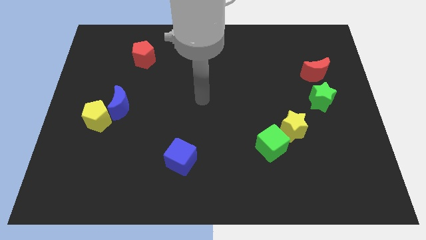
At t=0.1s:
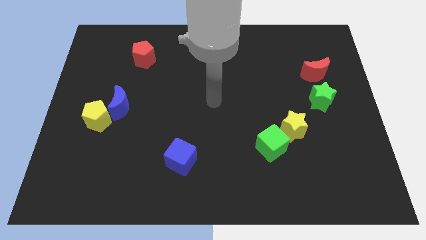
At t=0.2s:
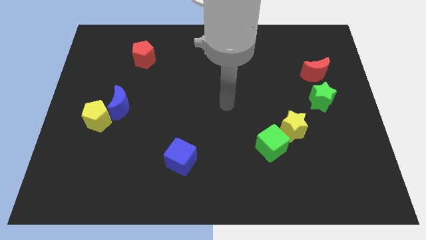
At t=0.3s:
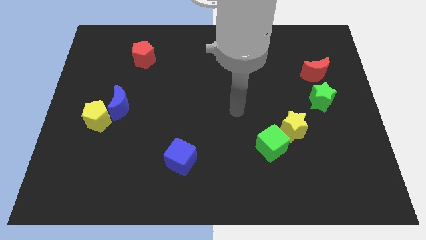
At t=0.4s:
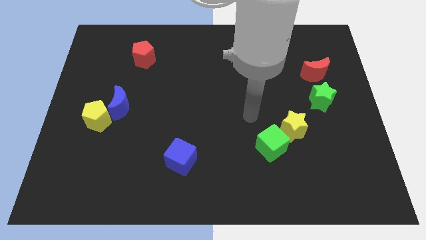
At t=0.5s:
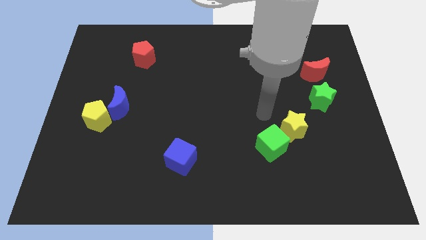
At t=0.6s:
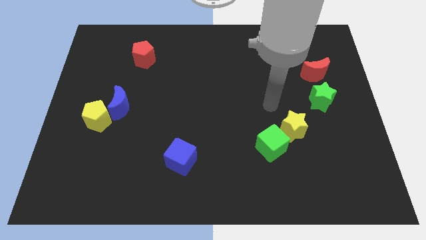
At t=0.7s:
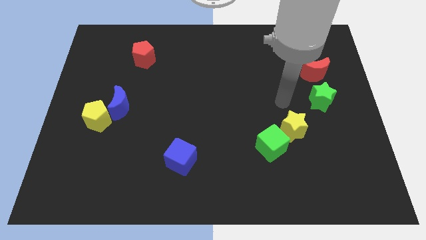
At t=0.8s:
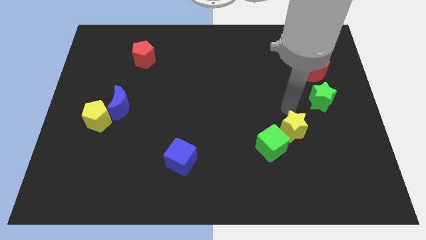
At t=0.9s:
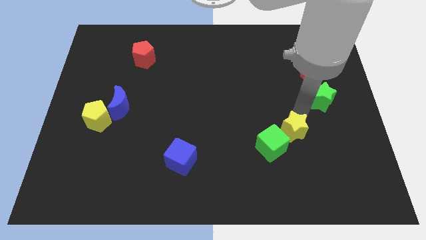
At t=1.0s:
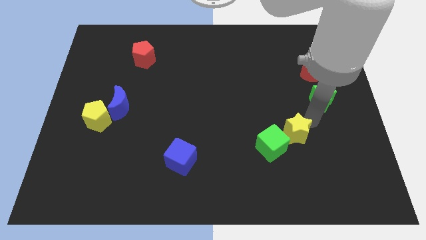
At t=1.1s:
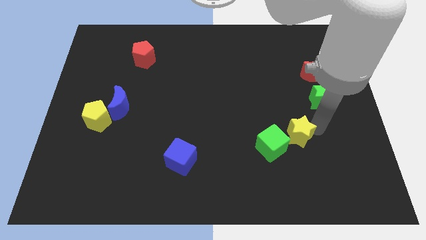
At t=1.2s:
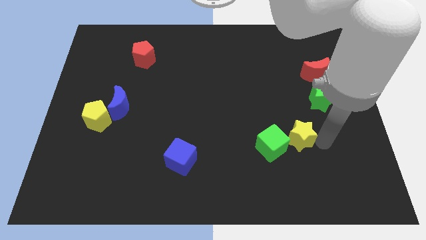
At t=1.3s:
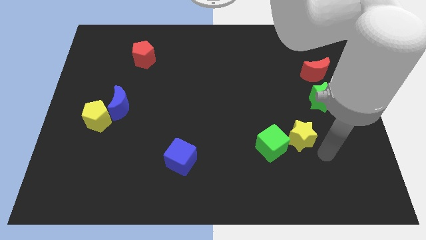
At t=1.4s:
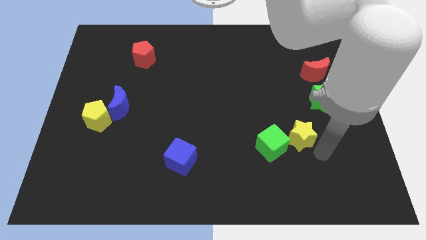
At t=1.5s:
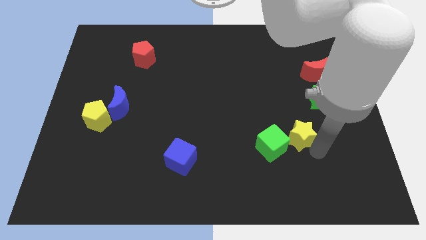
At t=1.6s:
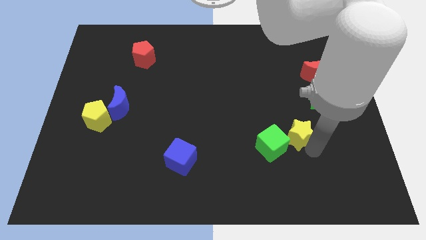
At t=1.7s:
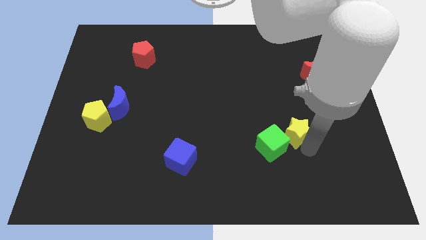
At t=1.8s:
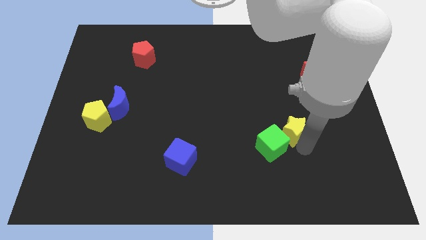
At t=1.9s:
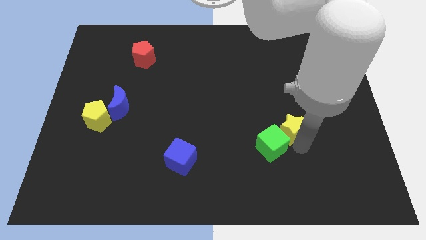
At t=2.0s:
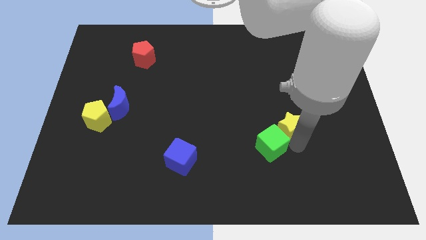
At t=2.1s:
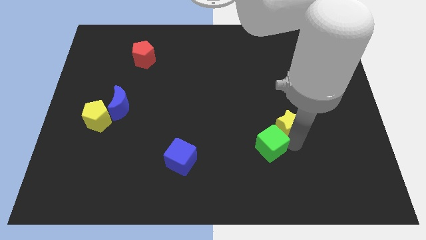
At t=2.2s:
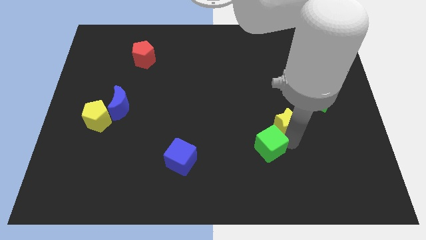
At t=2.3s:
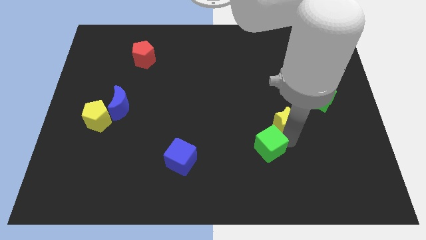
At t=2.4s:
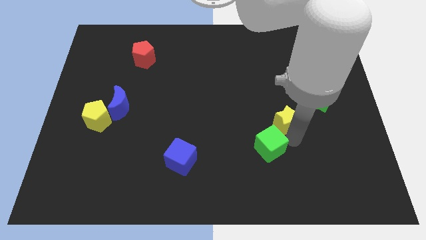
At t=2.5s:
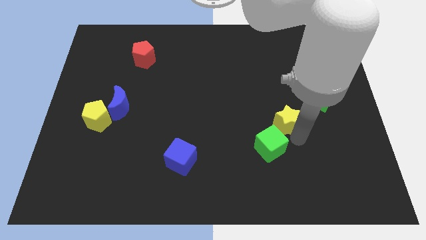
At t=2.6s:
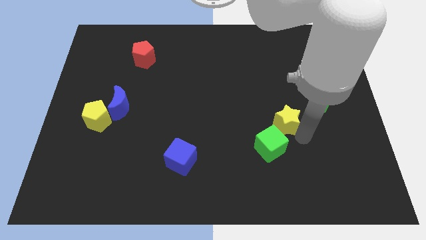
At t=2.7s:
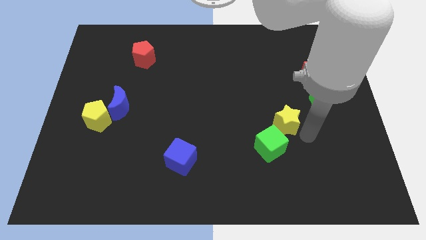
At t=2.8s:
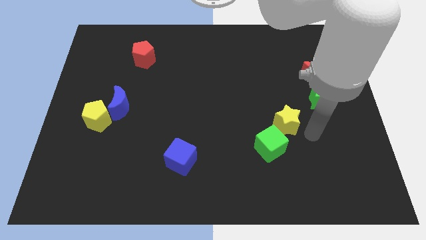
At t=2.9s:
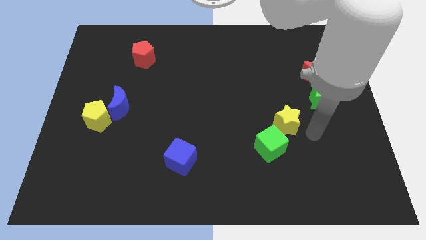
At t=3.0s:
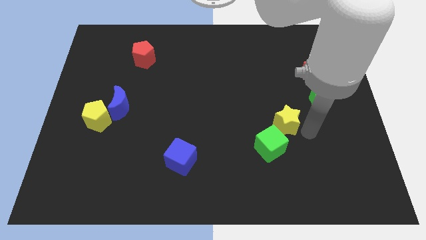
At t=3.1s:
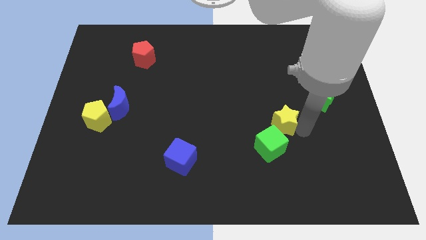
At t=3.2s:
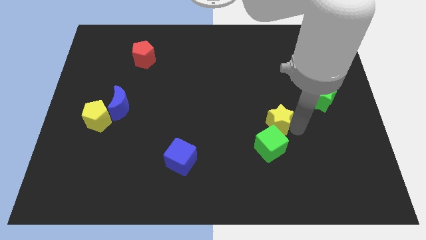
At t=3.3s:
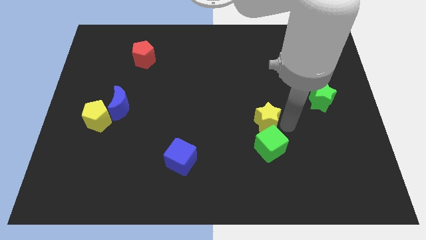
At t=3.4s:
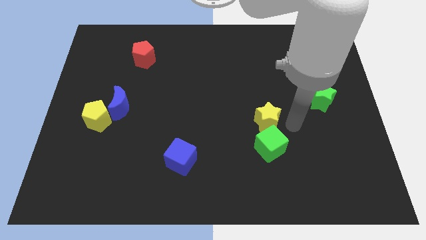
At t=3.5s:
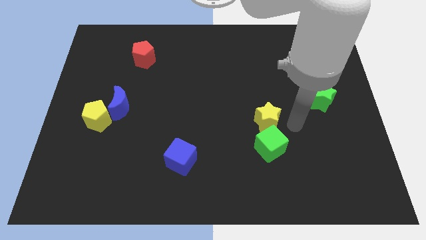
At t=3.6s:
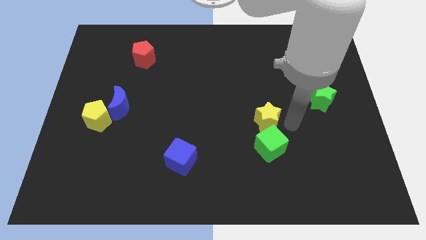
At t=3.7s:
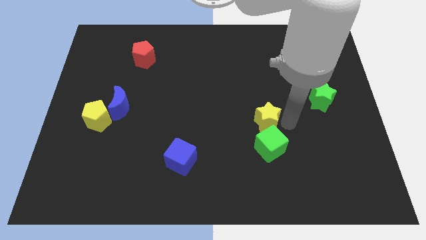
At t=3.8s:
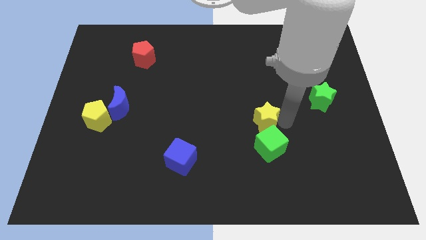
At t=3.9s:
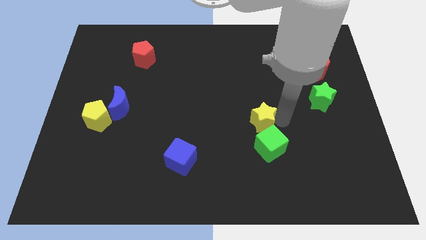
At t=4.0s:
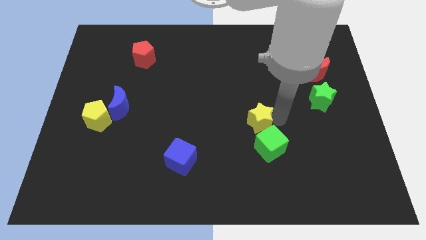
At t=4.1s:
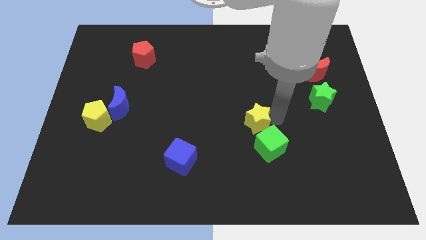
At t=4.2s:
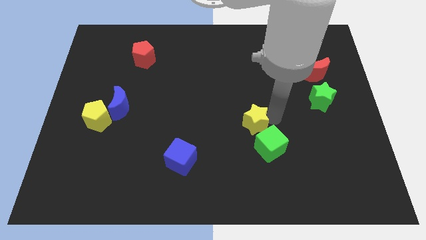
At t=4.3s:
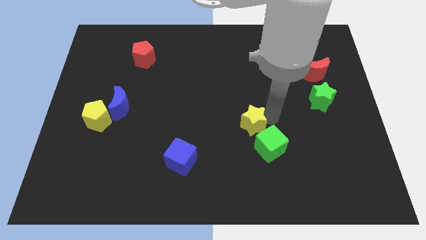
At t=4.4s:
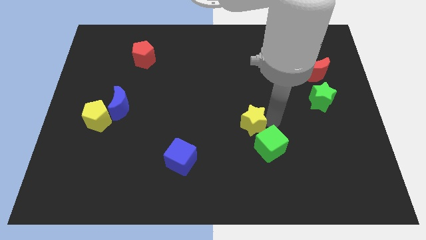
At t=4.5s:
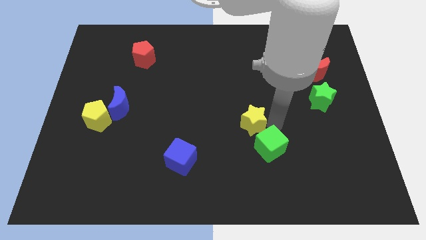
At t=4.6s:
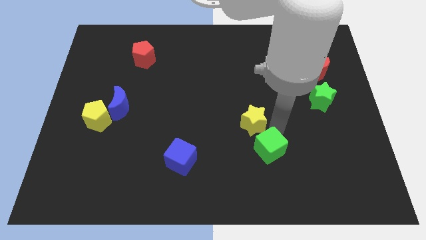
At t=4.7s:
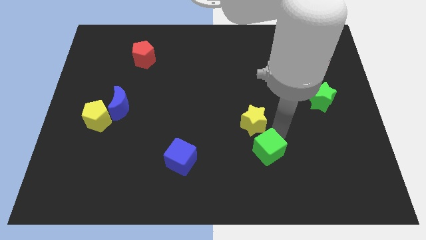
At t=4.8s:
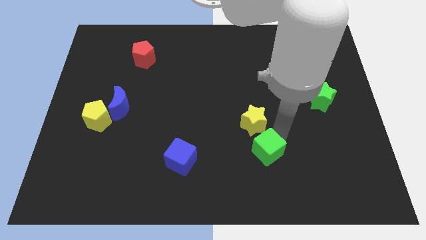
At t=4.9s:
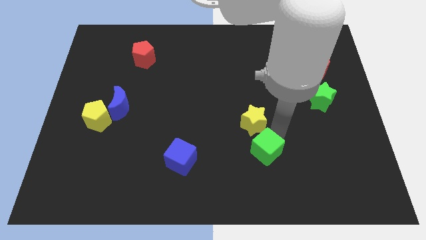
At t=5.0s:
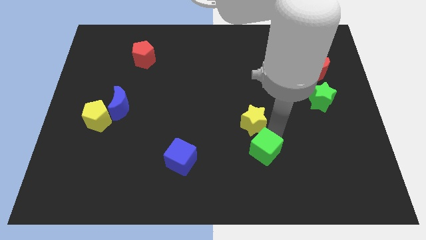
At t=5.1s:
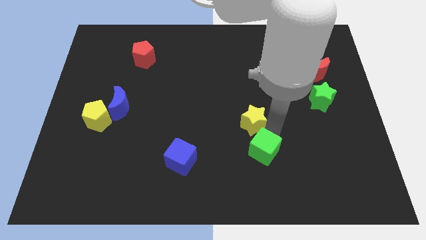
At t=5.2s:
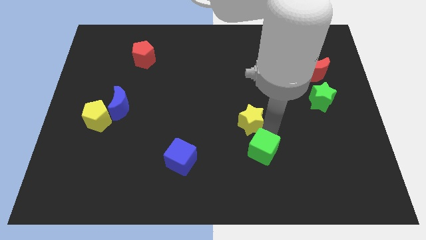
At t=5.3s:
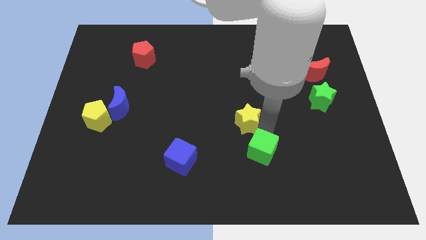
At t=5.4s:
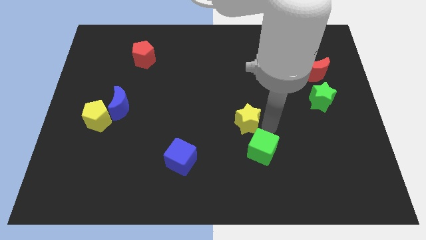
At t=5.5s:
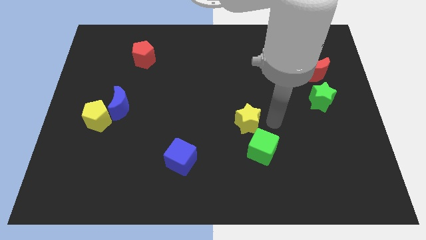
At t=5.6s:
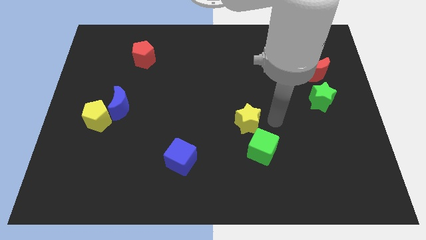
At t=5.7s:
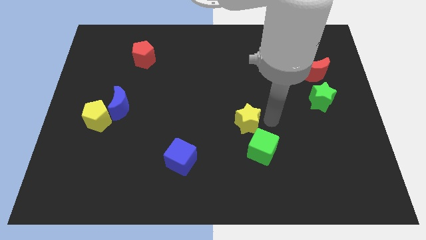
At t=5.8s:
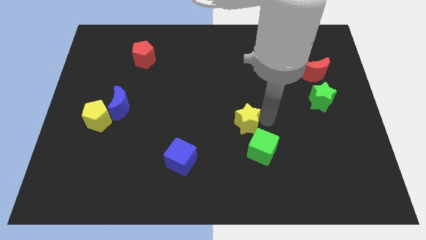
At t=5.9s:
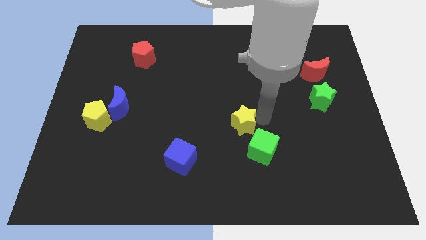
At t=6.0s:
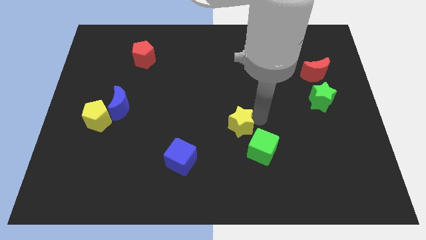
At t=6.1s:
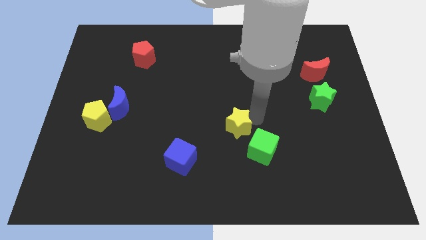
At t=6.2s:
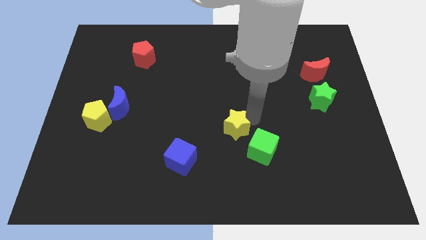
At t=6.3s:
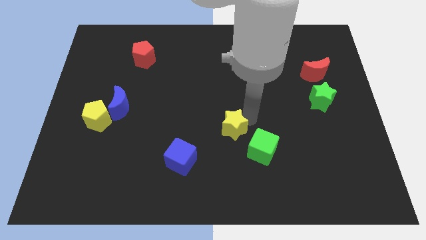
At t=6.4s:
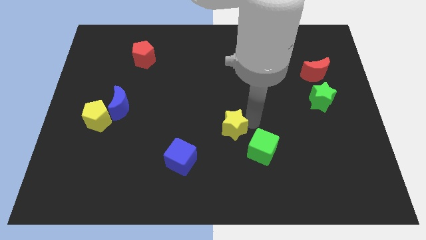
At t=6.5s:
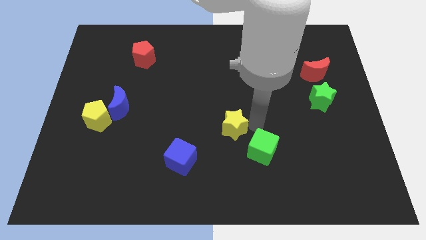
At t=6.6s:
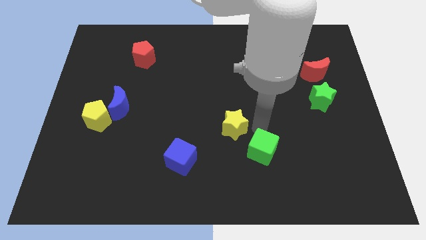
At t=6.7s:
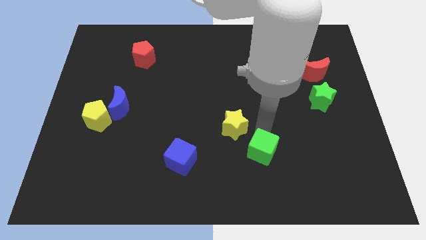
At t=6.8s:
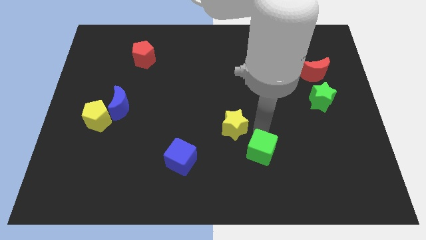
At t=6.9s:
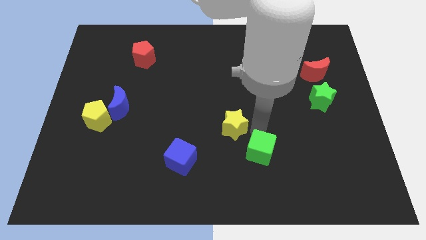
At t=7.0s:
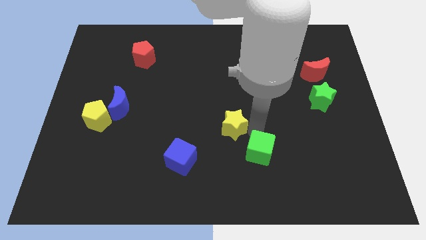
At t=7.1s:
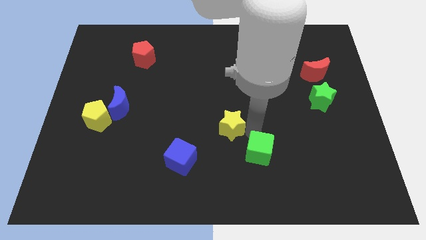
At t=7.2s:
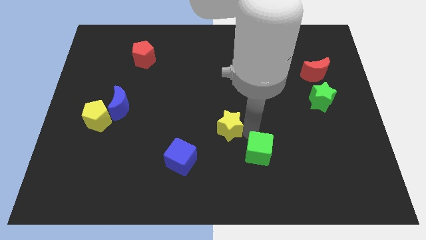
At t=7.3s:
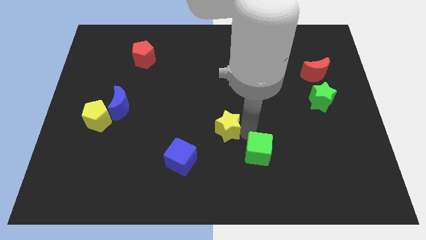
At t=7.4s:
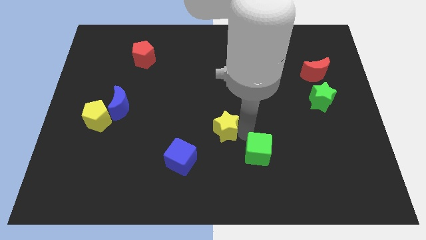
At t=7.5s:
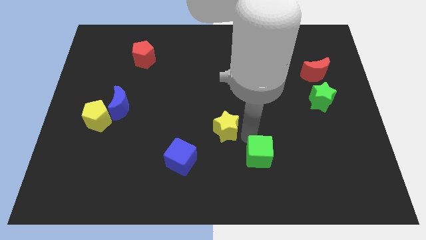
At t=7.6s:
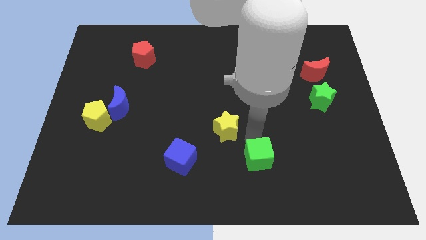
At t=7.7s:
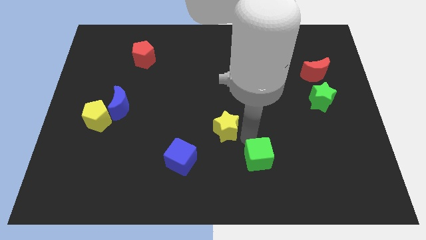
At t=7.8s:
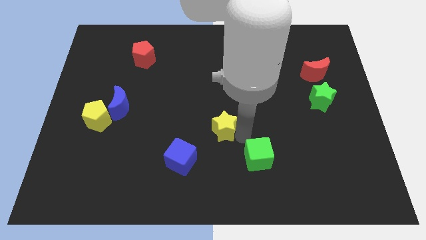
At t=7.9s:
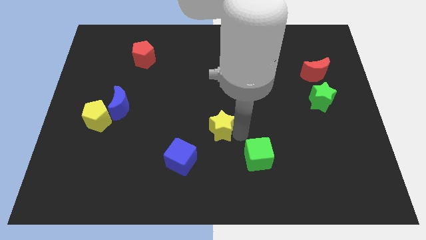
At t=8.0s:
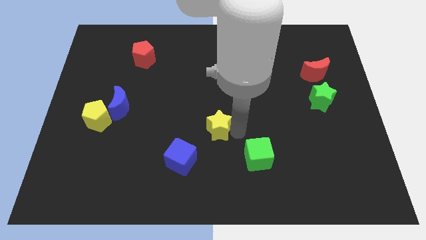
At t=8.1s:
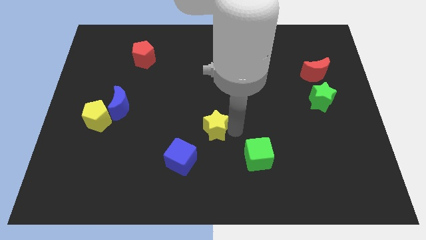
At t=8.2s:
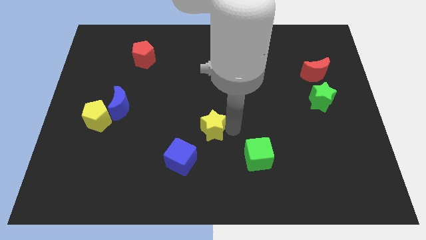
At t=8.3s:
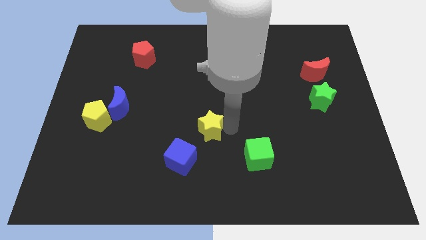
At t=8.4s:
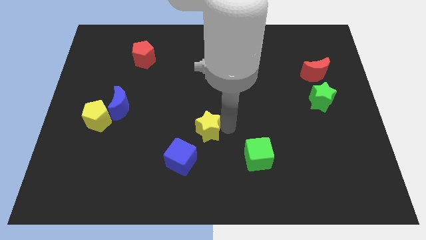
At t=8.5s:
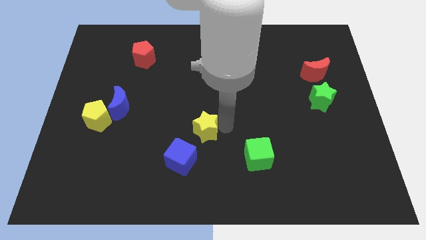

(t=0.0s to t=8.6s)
slide the yellow star to the left
